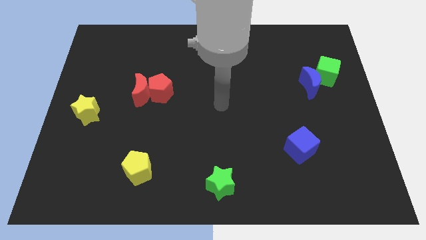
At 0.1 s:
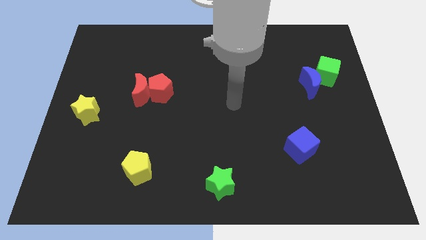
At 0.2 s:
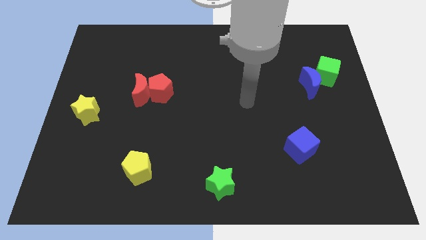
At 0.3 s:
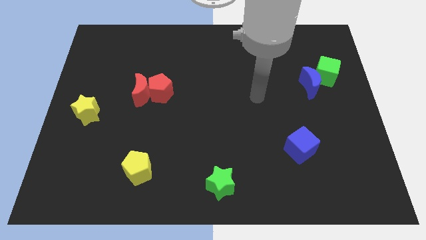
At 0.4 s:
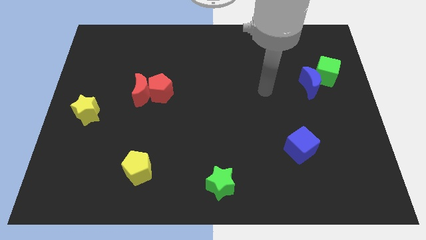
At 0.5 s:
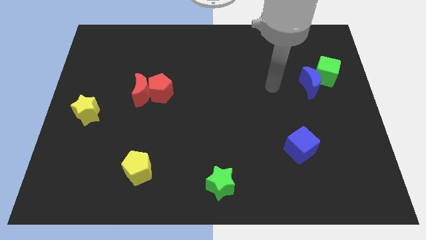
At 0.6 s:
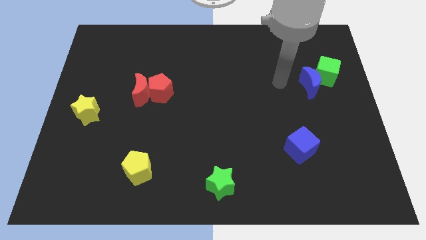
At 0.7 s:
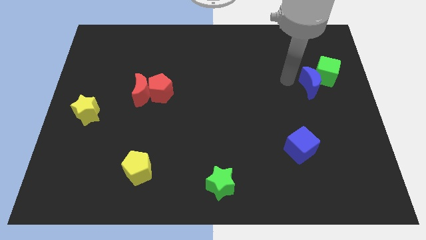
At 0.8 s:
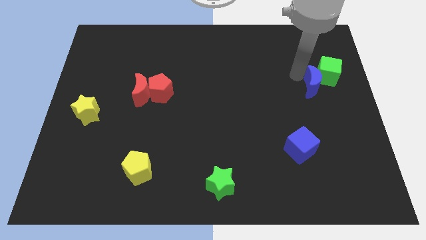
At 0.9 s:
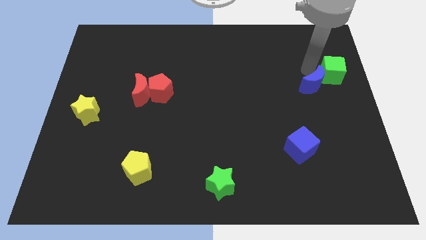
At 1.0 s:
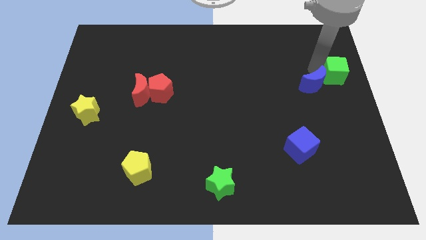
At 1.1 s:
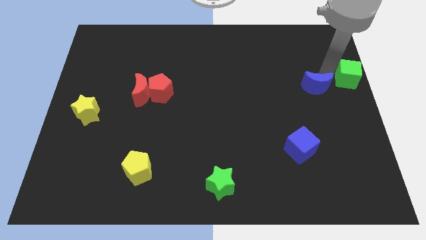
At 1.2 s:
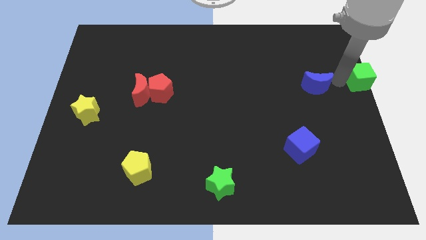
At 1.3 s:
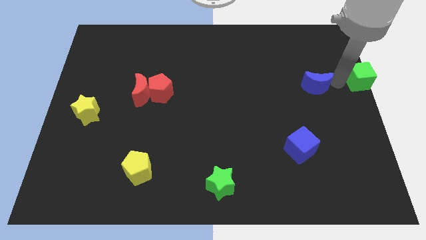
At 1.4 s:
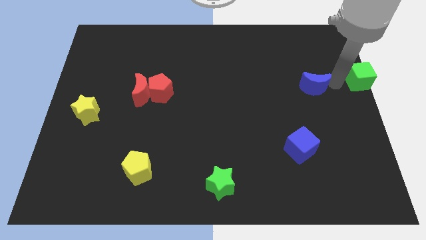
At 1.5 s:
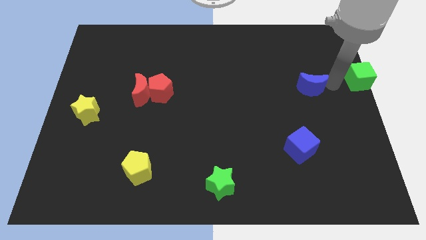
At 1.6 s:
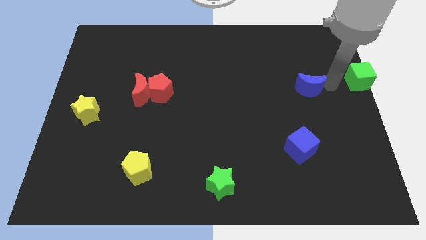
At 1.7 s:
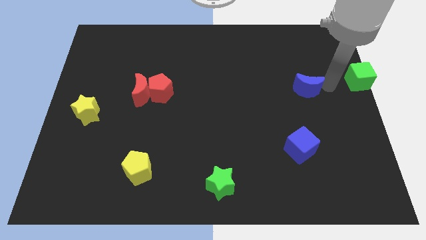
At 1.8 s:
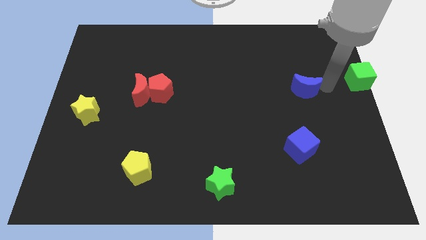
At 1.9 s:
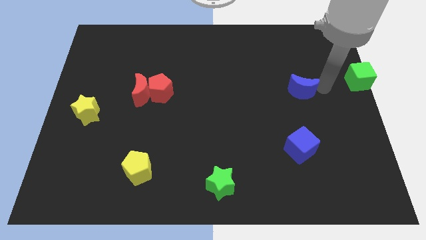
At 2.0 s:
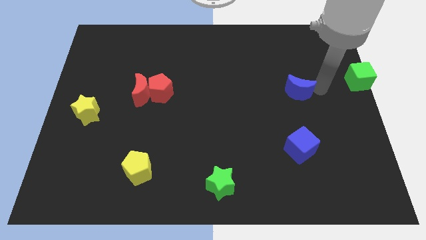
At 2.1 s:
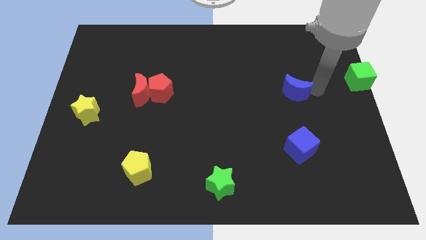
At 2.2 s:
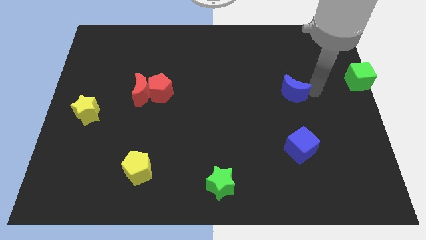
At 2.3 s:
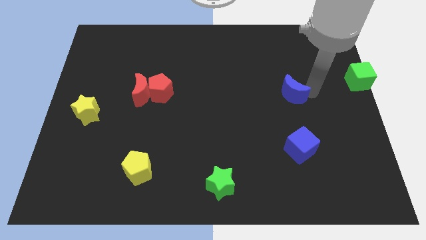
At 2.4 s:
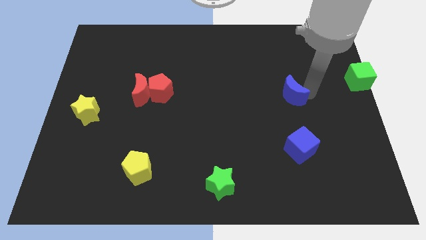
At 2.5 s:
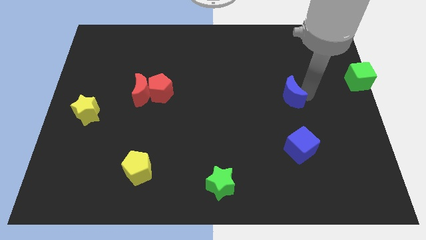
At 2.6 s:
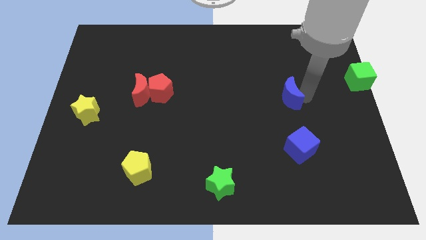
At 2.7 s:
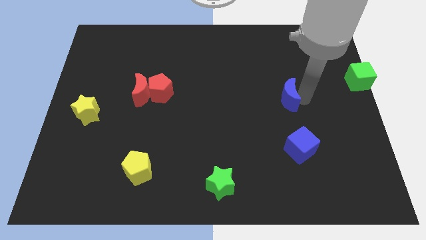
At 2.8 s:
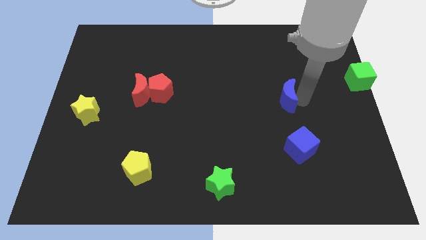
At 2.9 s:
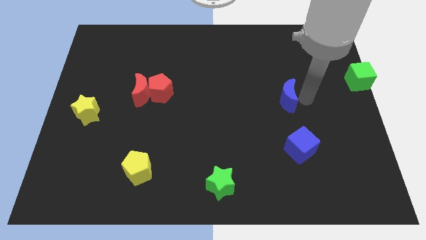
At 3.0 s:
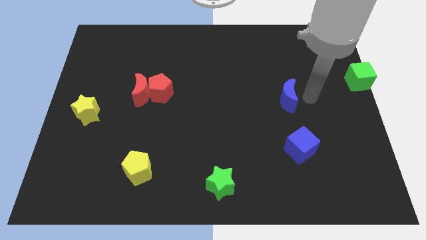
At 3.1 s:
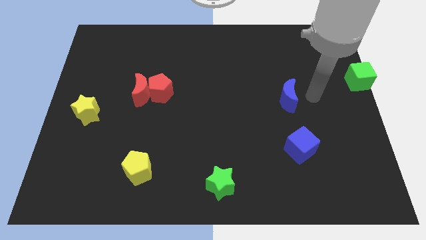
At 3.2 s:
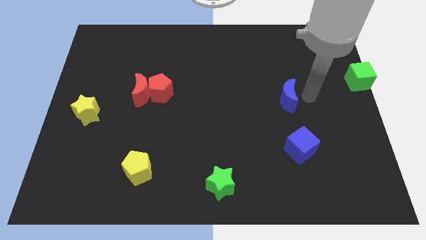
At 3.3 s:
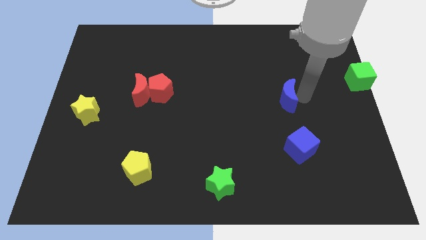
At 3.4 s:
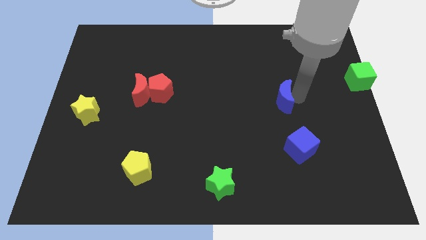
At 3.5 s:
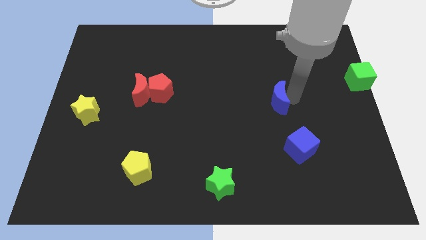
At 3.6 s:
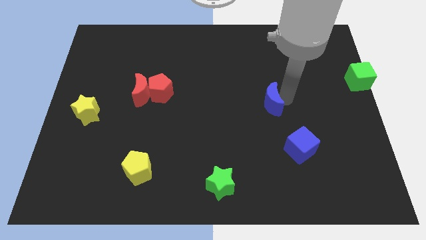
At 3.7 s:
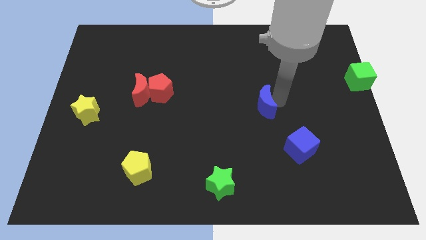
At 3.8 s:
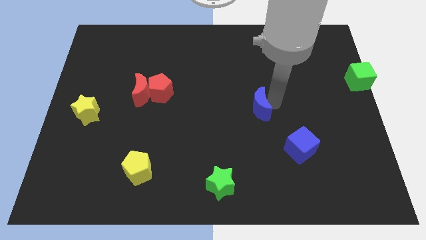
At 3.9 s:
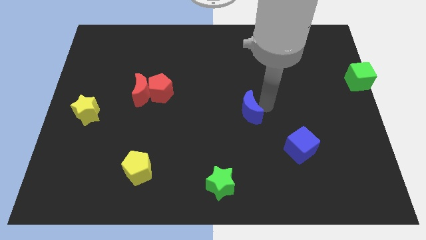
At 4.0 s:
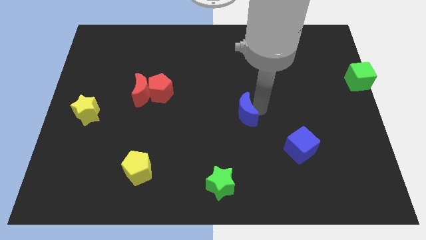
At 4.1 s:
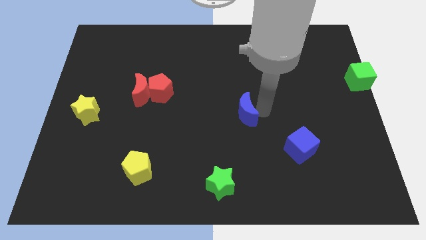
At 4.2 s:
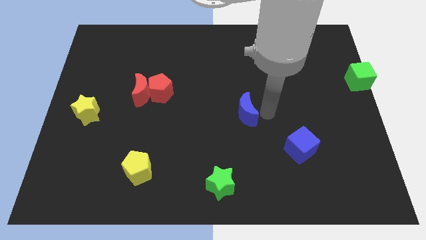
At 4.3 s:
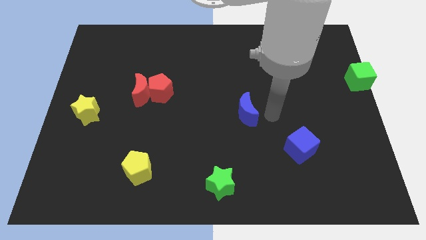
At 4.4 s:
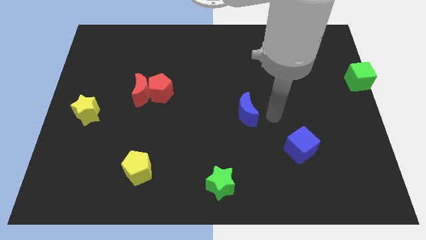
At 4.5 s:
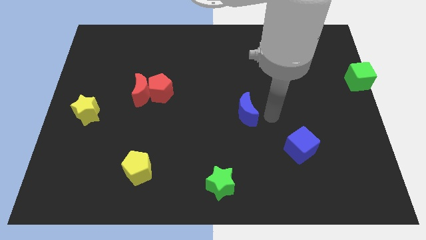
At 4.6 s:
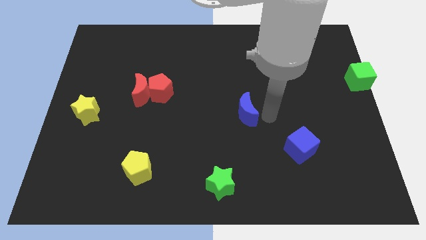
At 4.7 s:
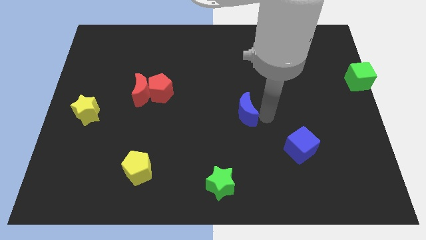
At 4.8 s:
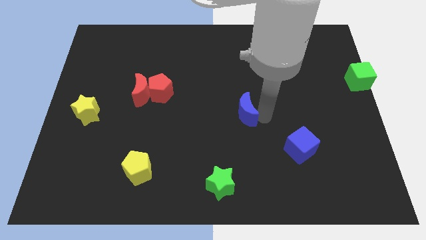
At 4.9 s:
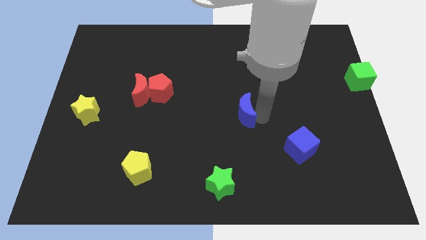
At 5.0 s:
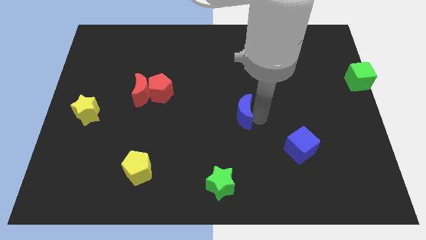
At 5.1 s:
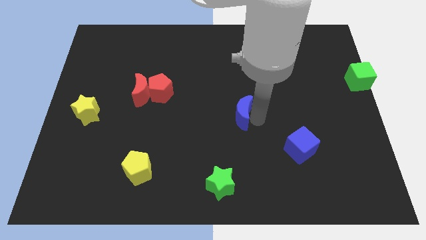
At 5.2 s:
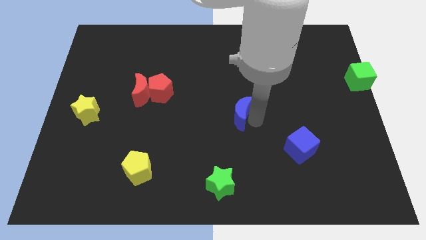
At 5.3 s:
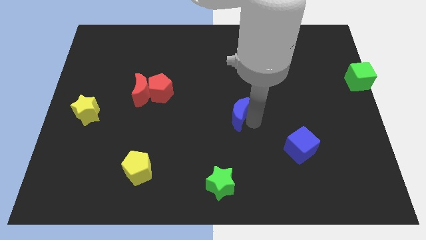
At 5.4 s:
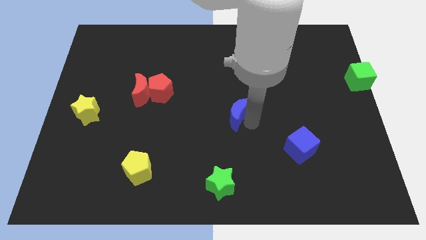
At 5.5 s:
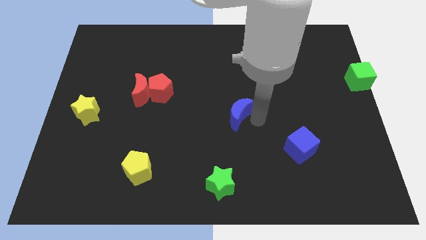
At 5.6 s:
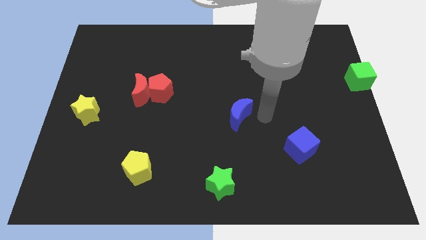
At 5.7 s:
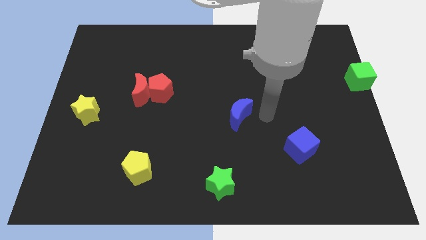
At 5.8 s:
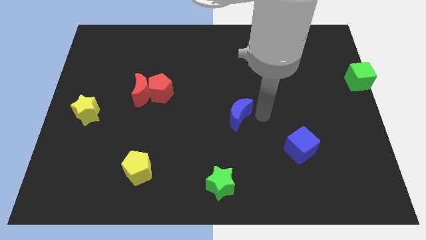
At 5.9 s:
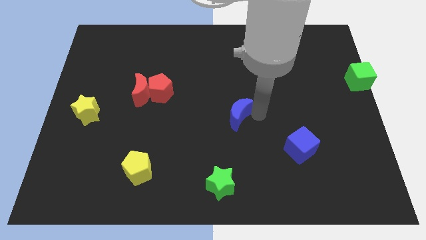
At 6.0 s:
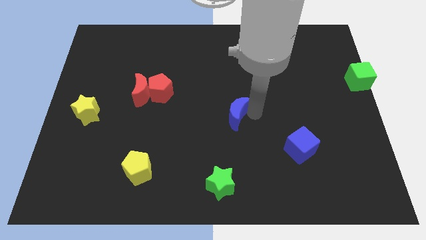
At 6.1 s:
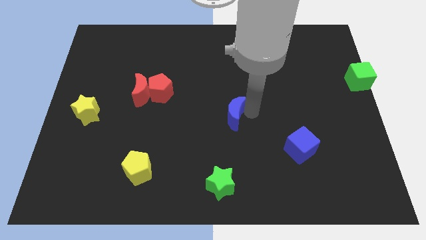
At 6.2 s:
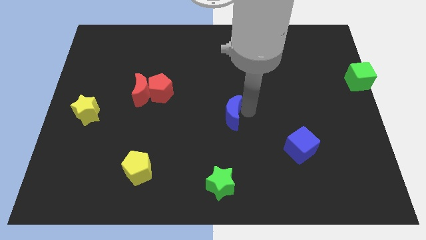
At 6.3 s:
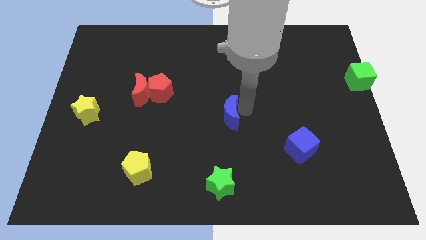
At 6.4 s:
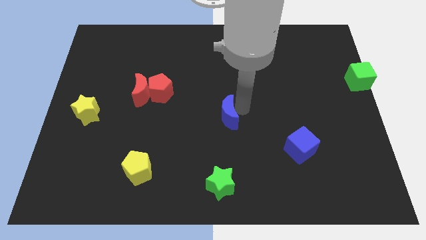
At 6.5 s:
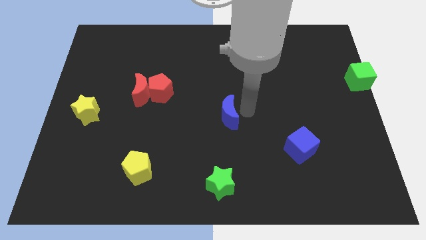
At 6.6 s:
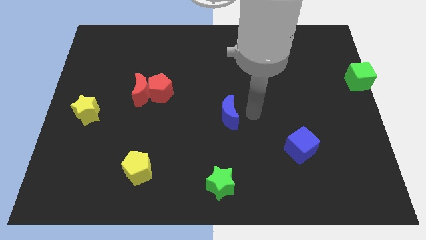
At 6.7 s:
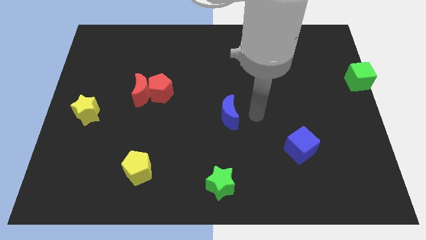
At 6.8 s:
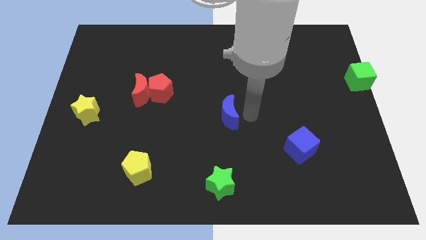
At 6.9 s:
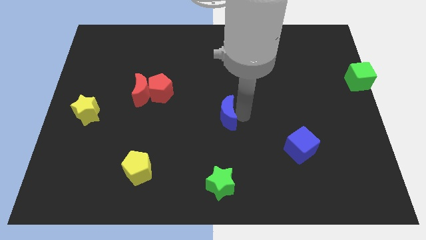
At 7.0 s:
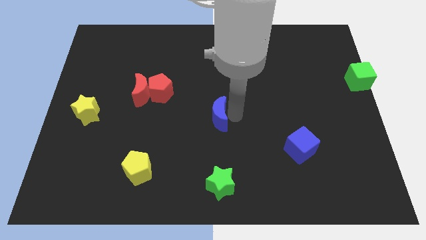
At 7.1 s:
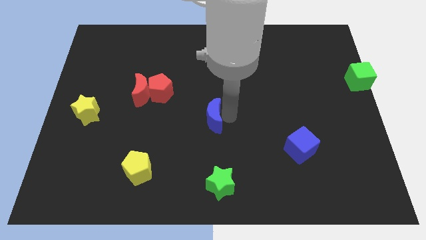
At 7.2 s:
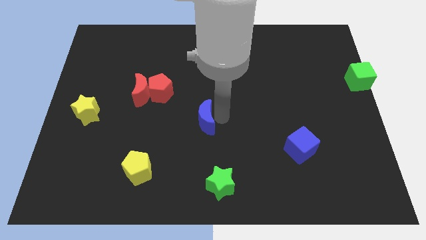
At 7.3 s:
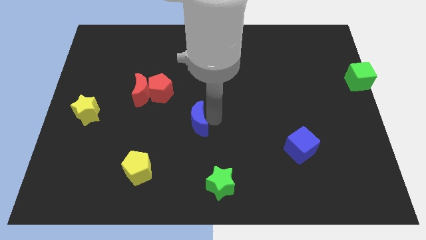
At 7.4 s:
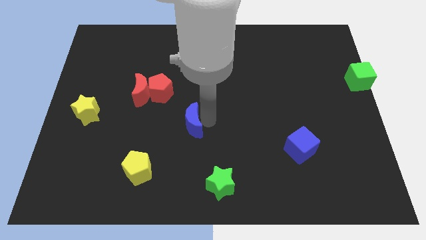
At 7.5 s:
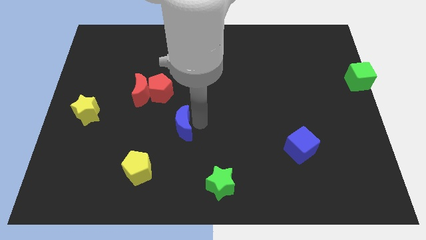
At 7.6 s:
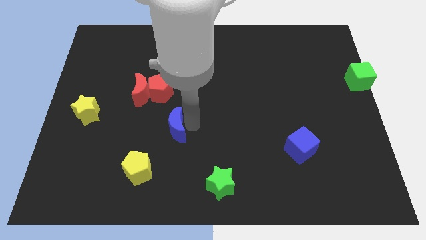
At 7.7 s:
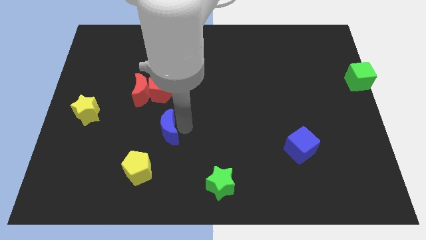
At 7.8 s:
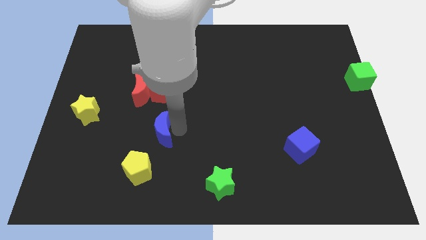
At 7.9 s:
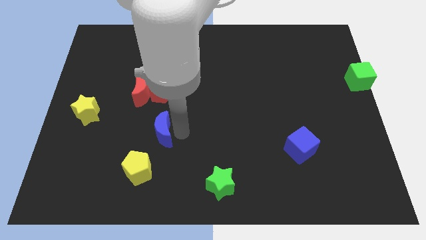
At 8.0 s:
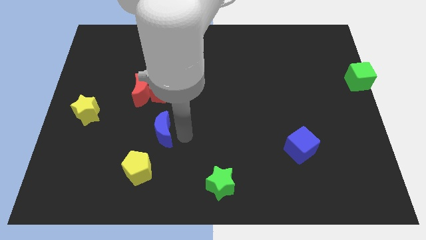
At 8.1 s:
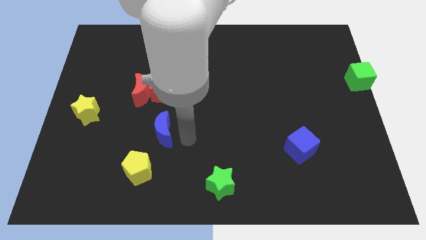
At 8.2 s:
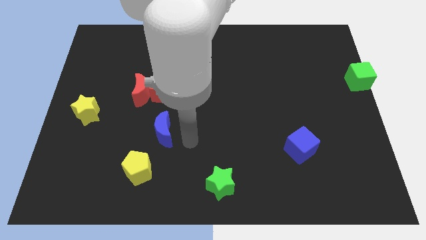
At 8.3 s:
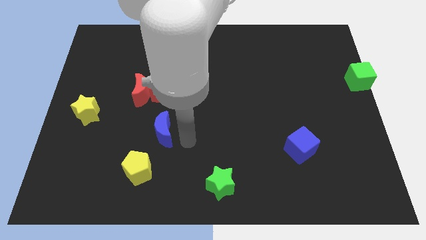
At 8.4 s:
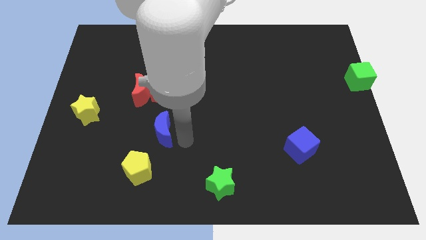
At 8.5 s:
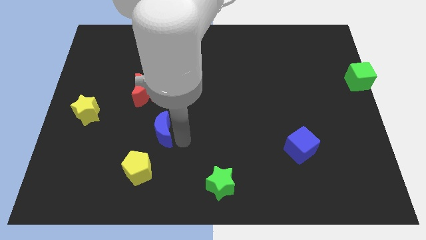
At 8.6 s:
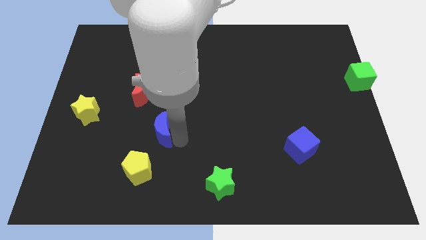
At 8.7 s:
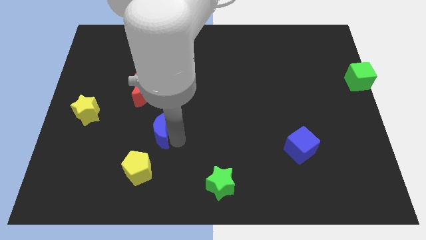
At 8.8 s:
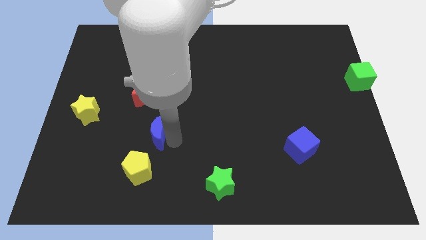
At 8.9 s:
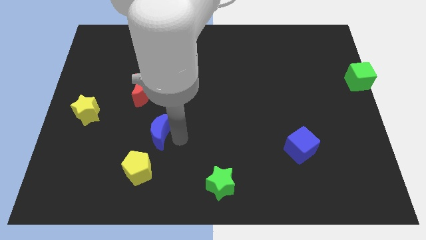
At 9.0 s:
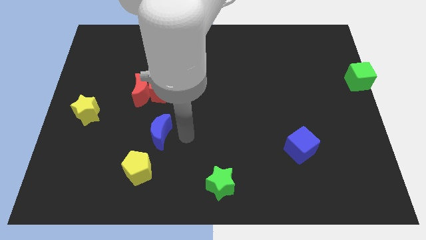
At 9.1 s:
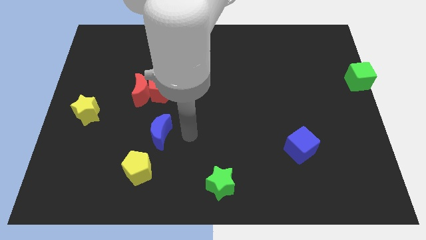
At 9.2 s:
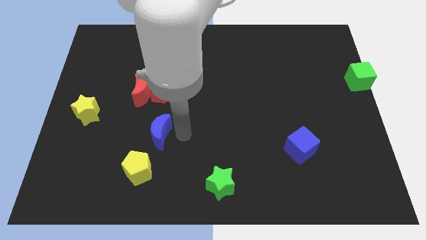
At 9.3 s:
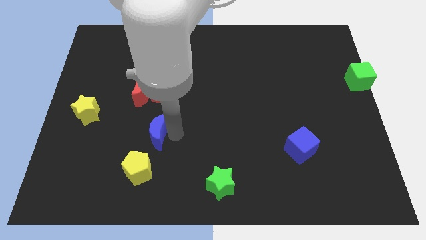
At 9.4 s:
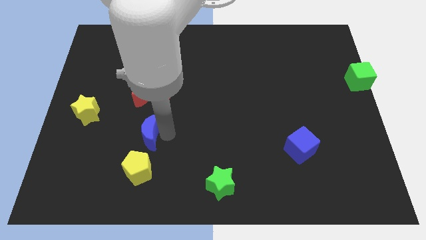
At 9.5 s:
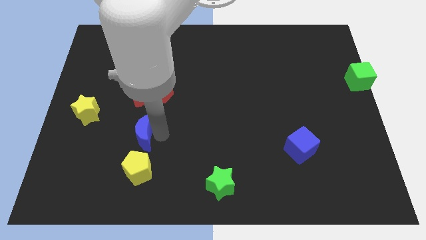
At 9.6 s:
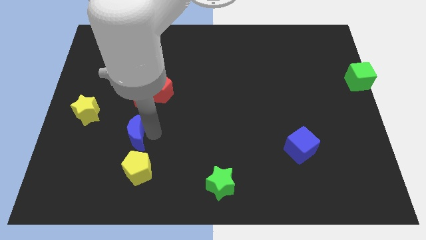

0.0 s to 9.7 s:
push the blue moon diagonally up and to the left of the yellow pentagon
